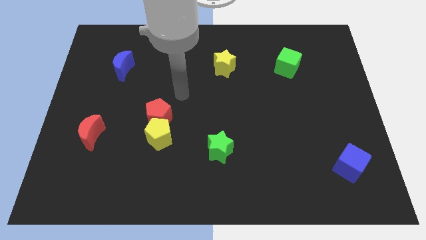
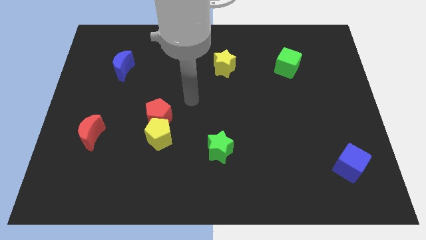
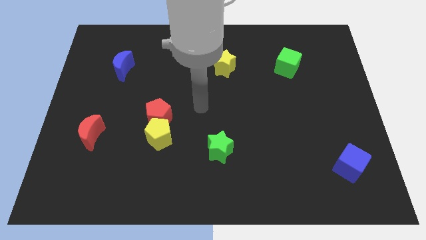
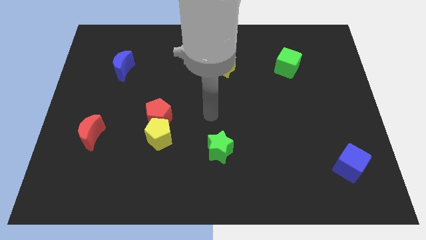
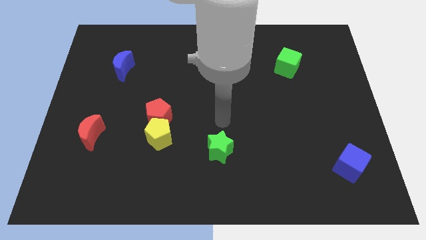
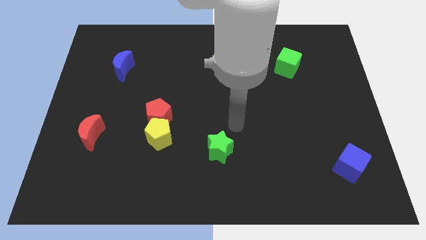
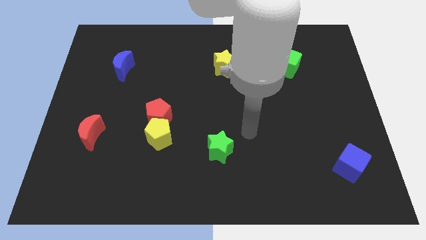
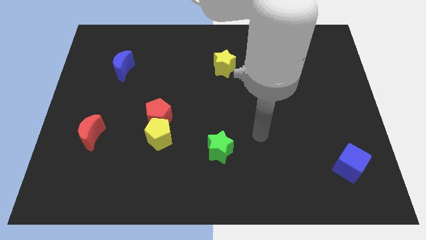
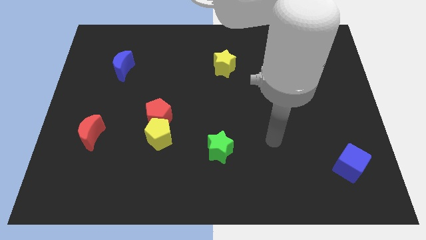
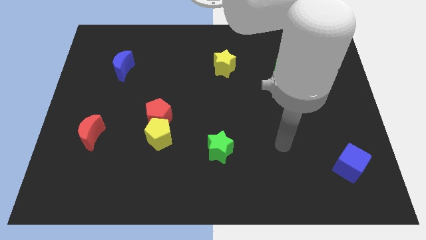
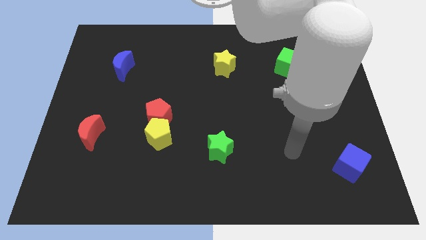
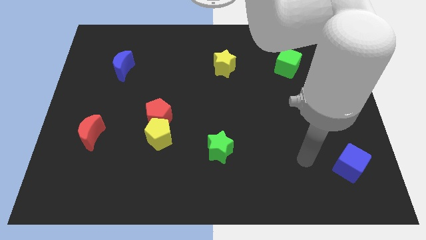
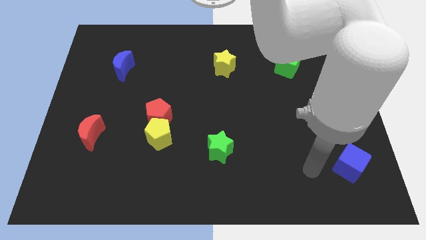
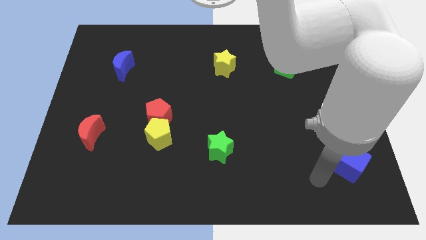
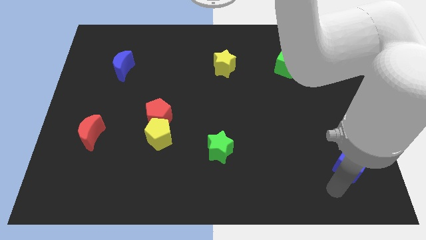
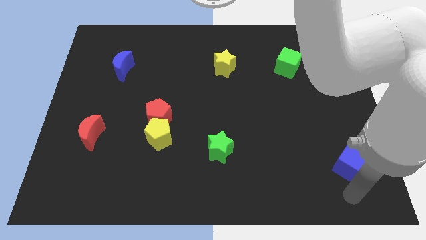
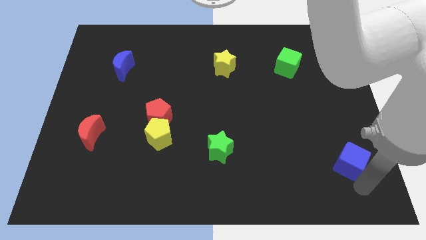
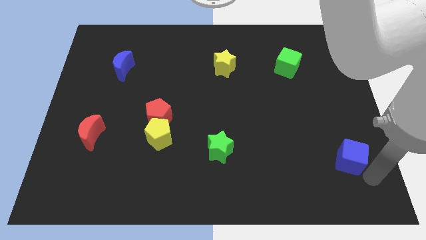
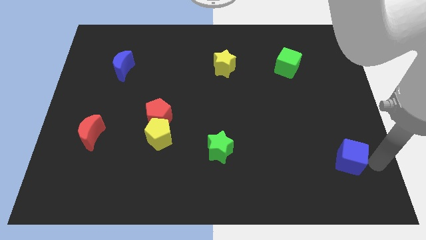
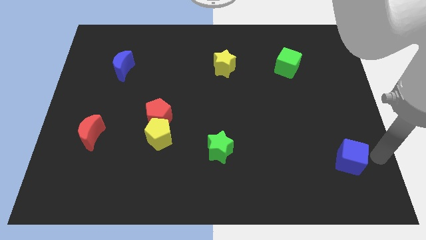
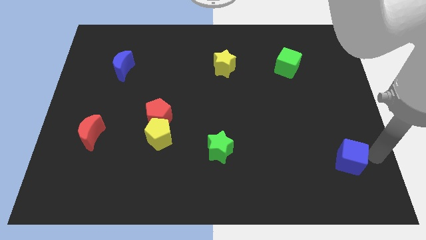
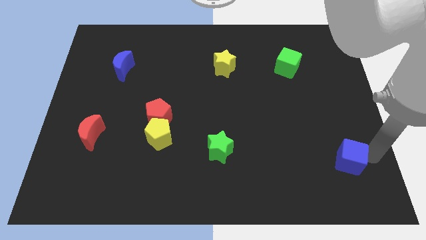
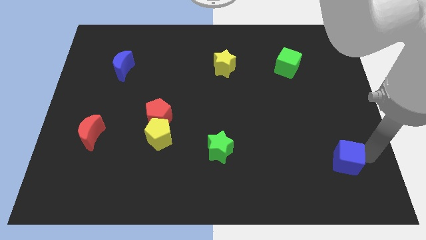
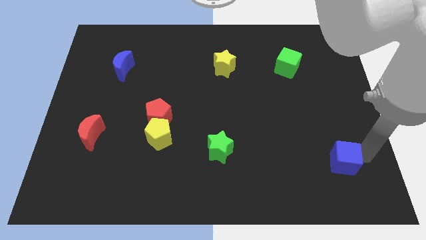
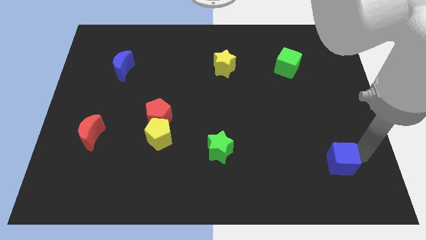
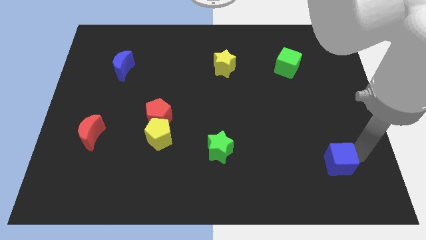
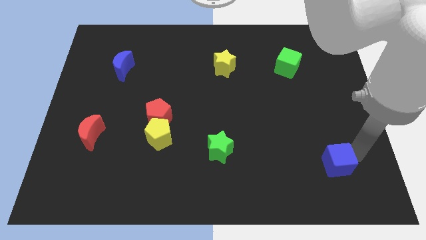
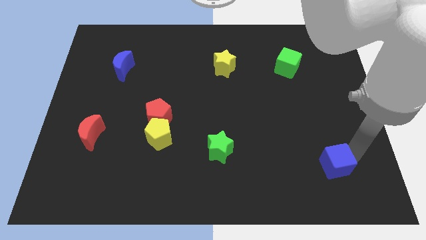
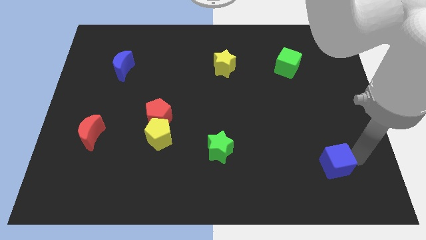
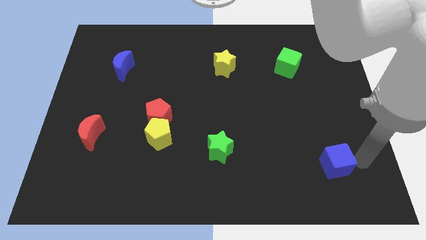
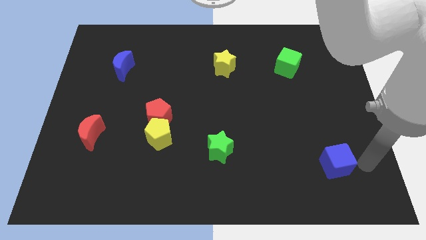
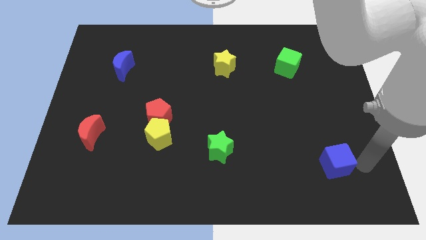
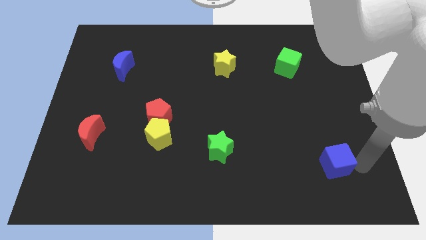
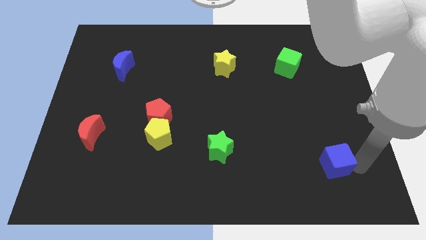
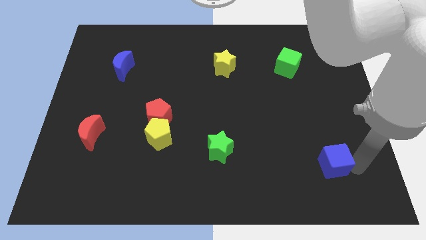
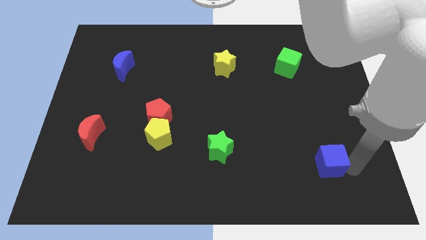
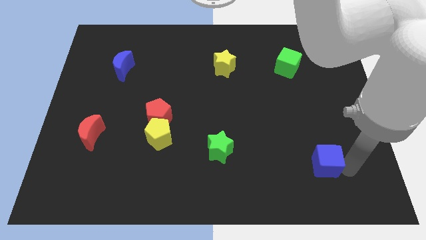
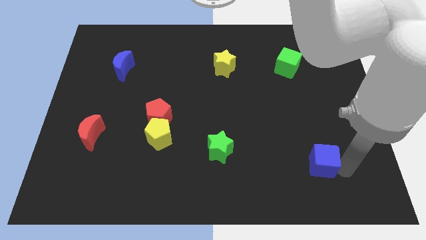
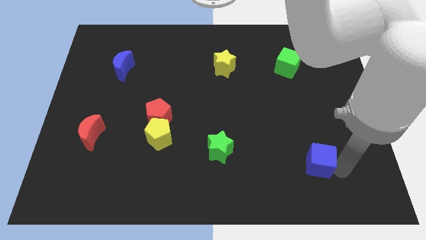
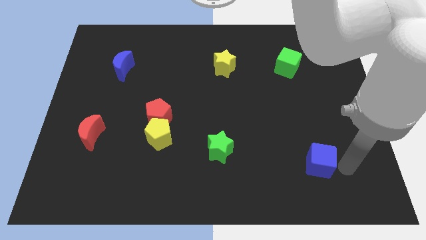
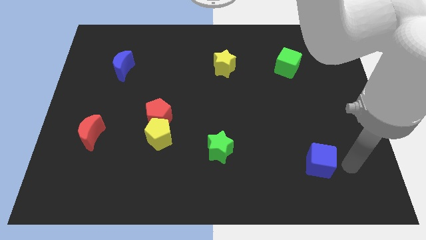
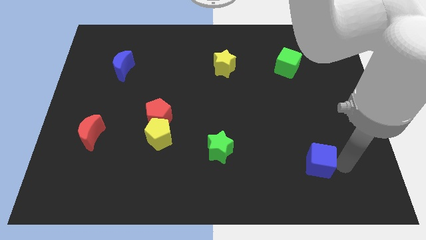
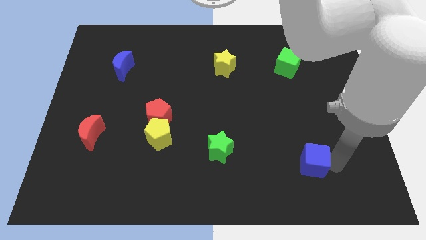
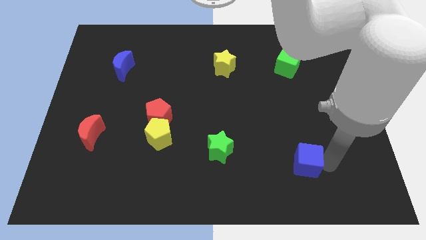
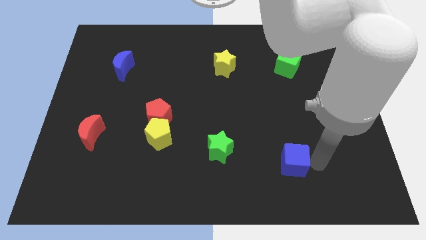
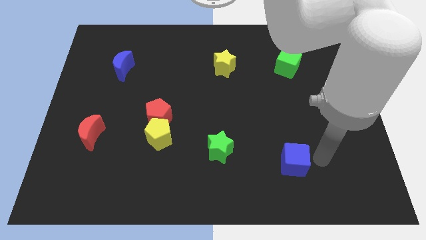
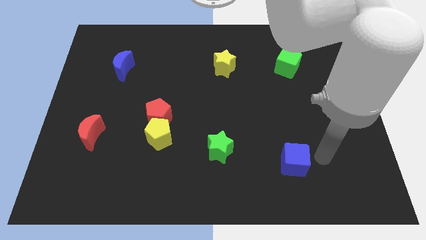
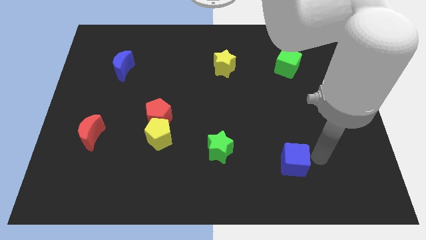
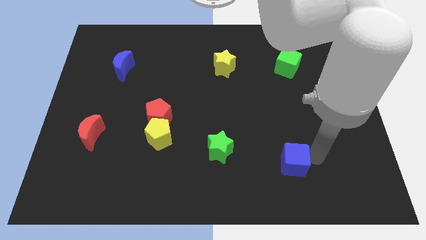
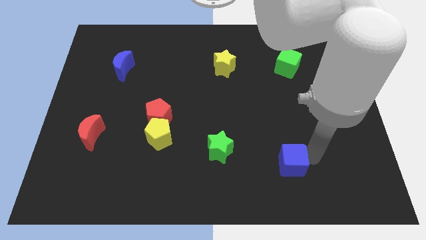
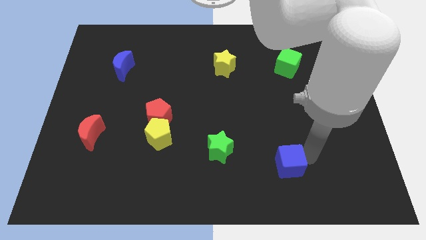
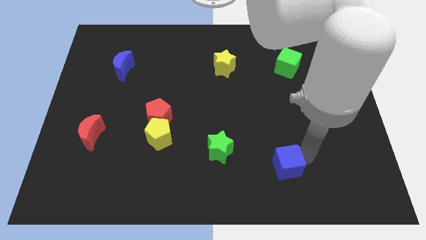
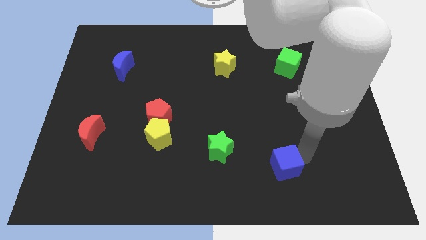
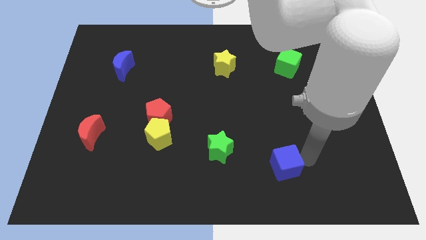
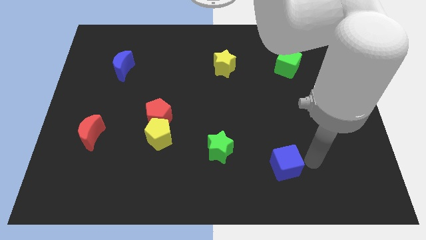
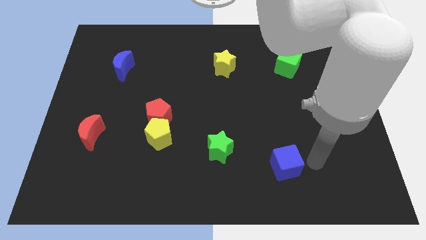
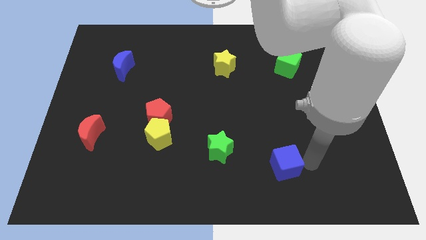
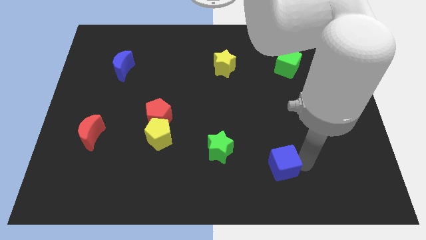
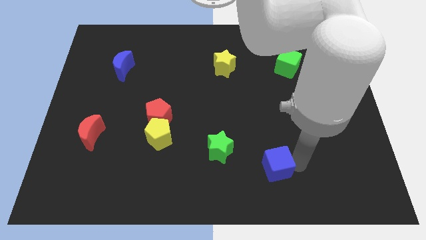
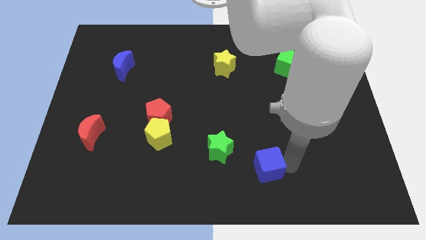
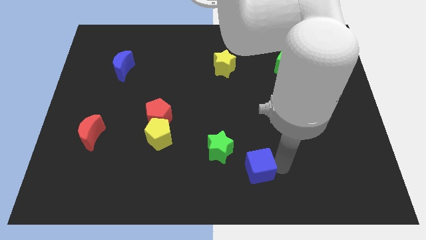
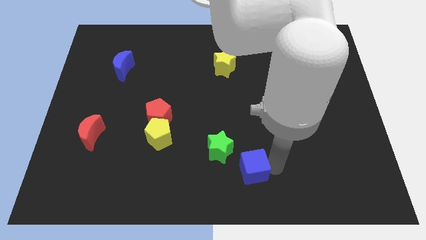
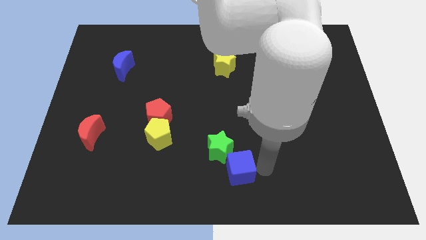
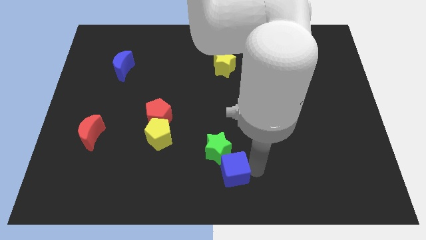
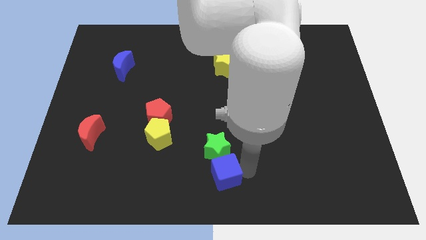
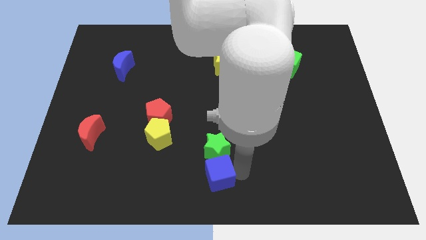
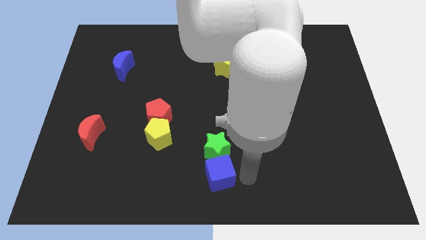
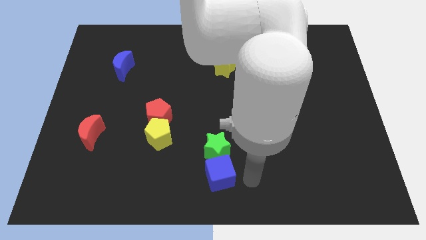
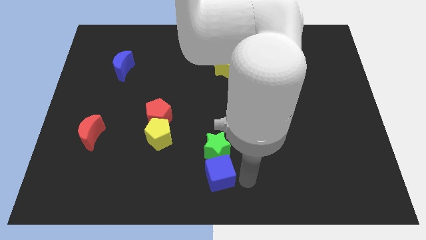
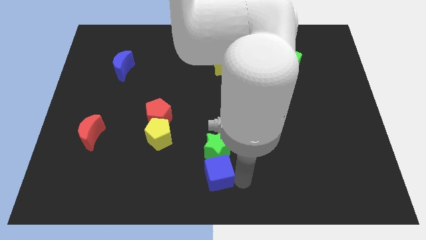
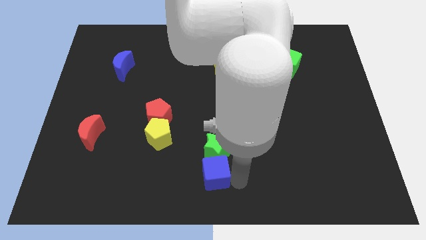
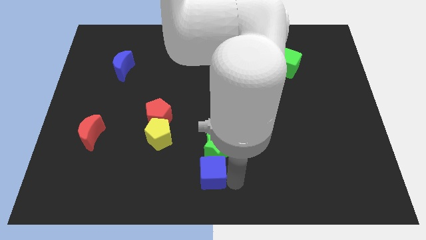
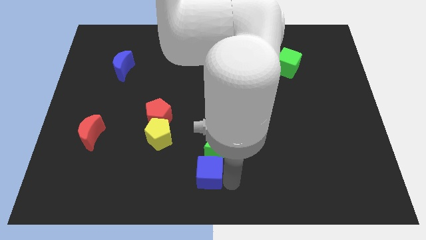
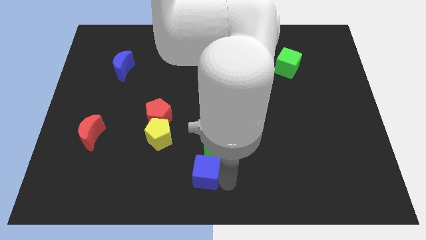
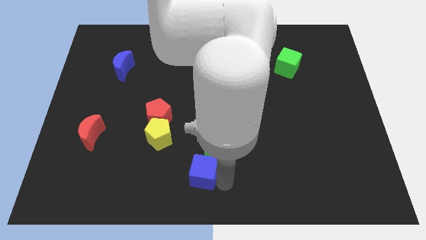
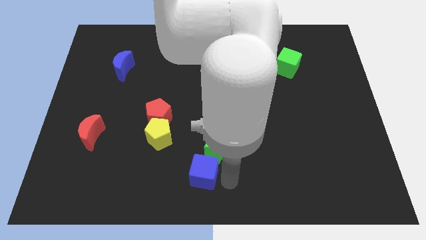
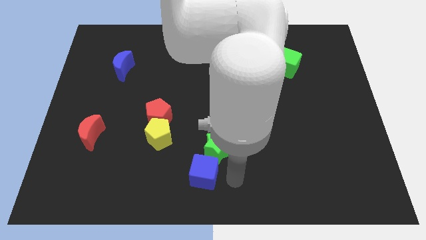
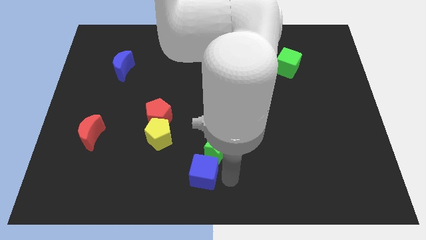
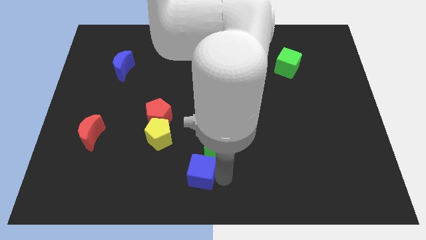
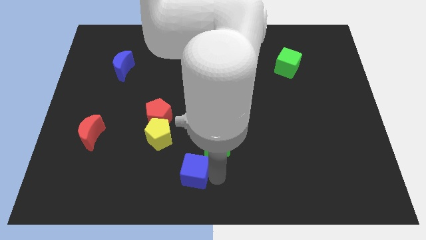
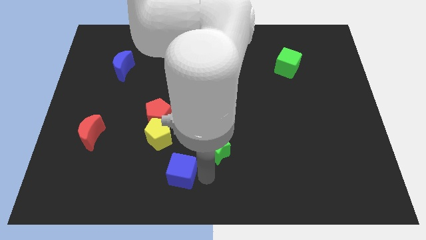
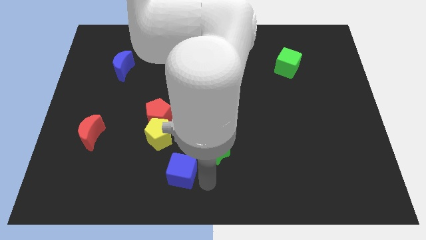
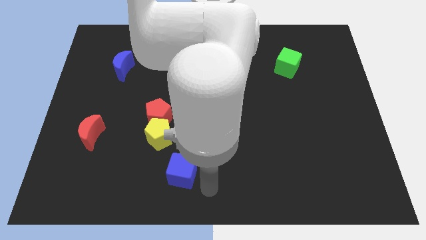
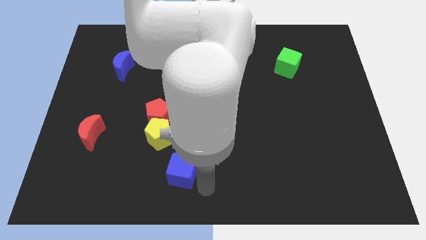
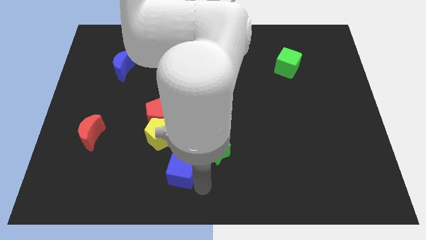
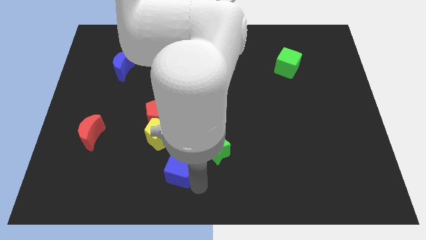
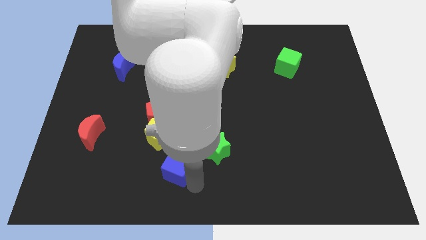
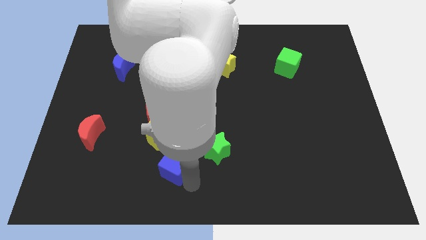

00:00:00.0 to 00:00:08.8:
push the blue cube to the bottom of the red pentagon
